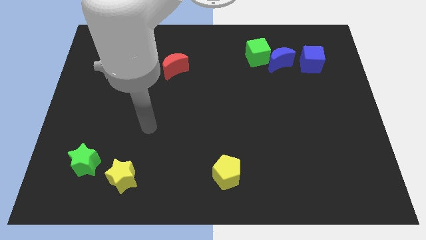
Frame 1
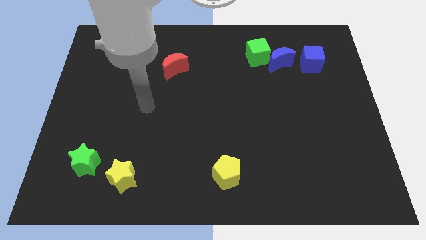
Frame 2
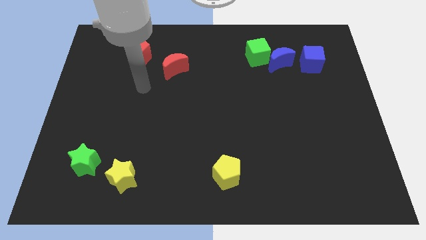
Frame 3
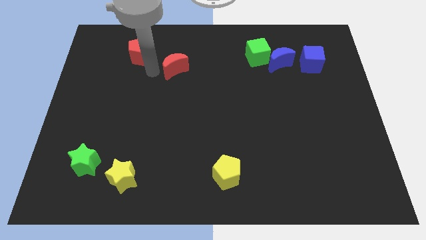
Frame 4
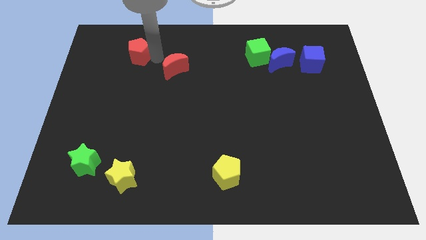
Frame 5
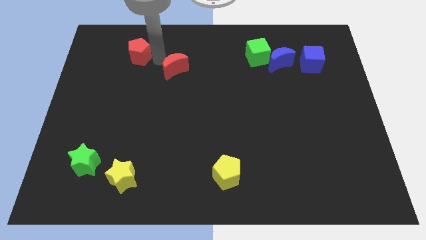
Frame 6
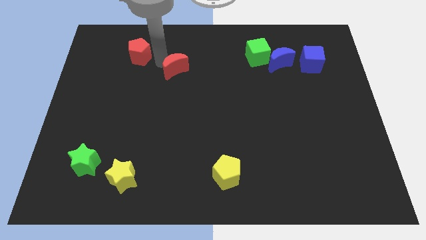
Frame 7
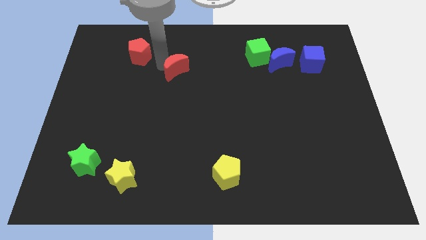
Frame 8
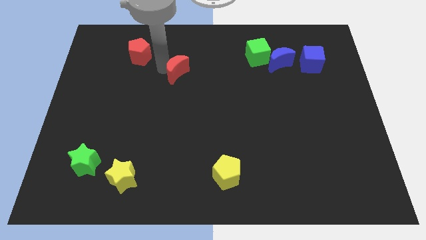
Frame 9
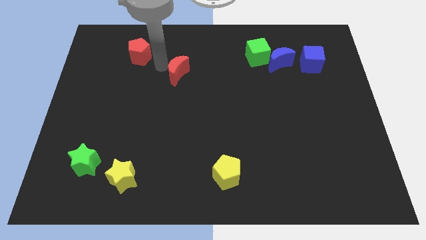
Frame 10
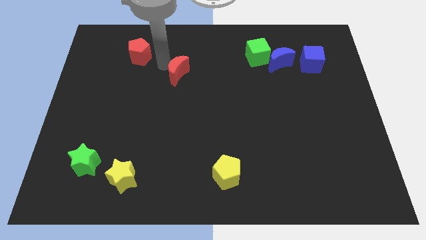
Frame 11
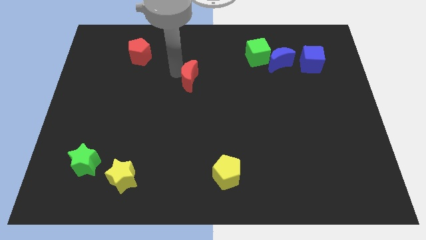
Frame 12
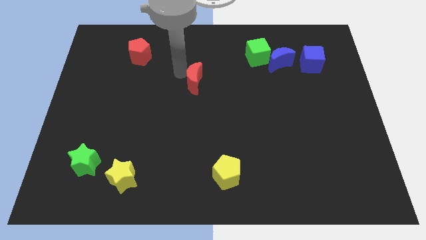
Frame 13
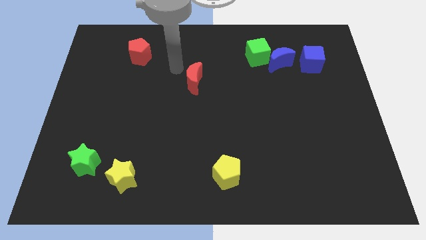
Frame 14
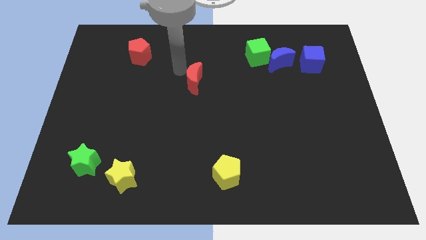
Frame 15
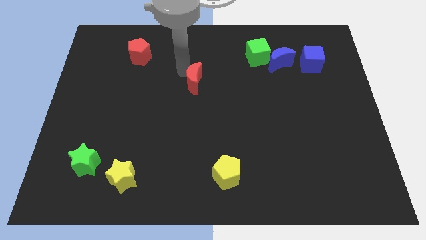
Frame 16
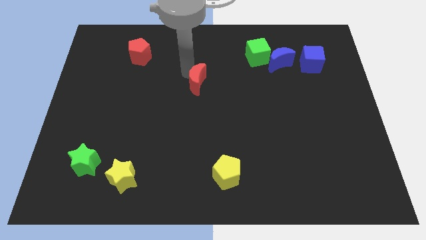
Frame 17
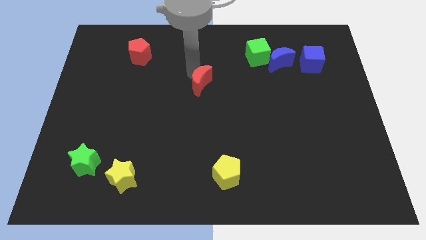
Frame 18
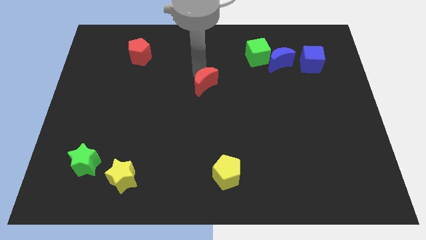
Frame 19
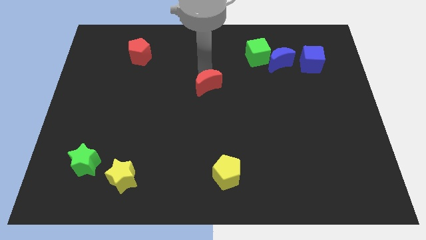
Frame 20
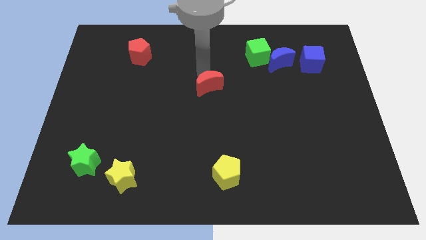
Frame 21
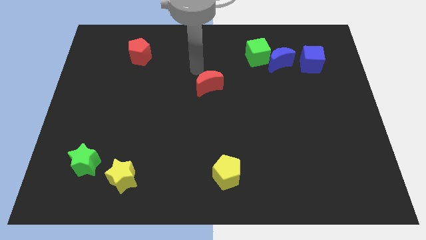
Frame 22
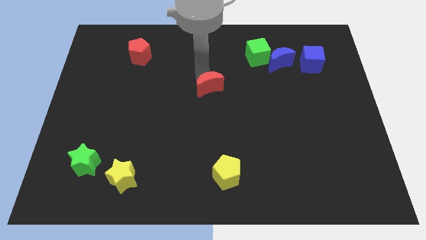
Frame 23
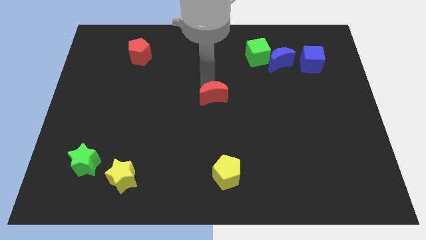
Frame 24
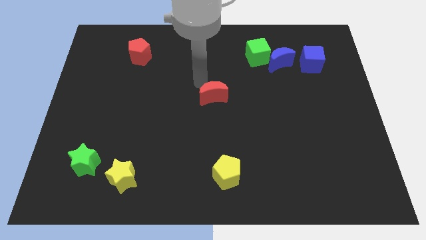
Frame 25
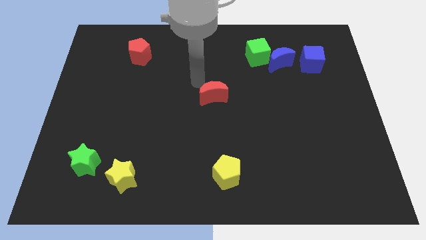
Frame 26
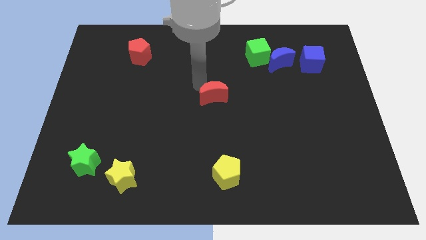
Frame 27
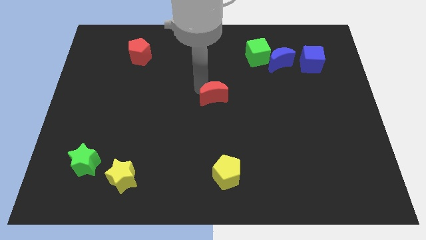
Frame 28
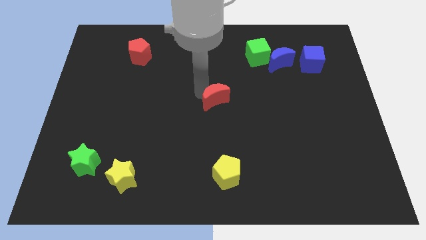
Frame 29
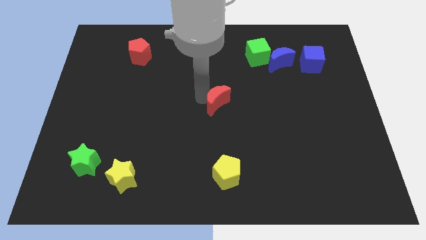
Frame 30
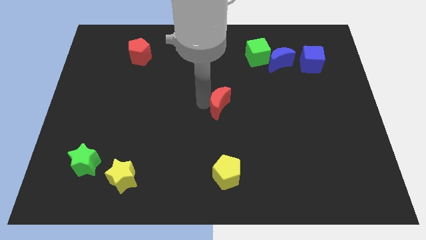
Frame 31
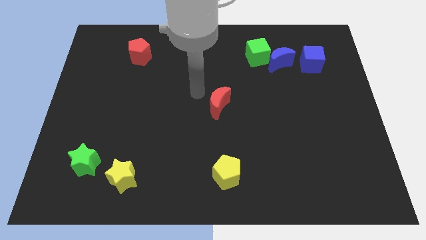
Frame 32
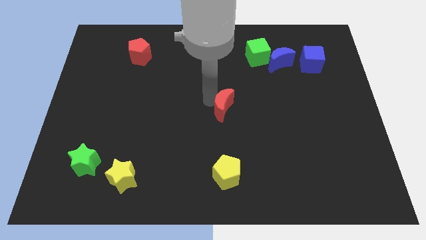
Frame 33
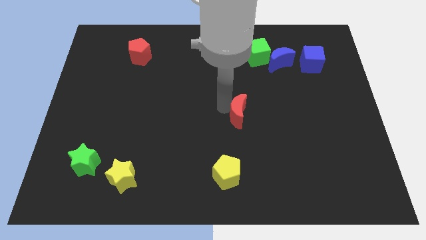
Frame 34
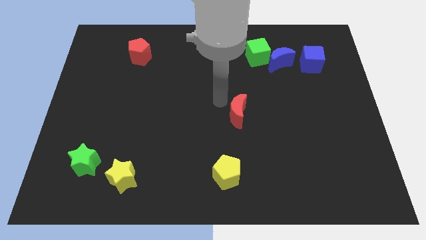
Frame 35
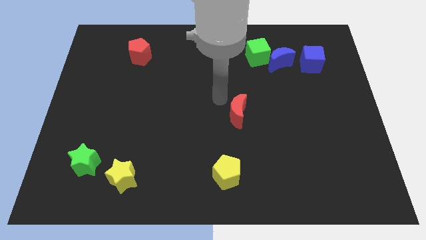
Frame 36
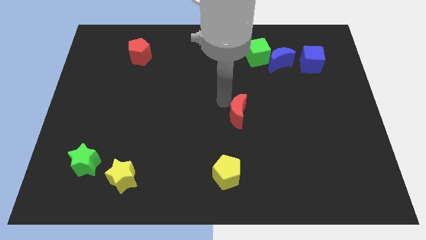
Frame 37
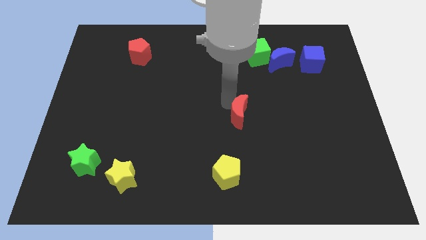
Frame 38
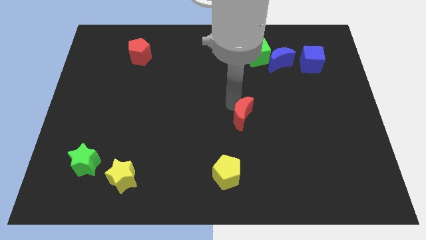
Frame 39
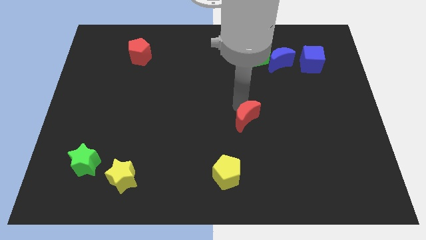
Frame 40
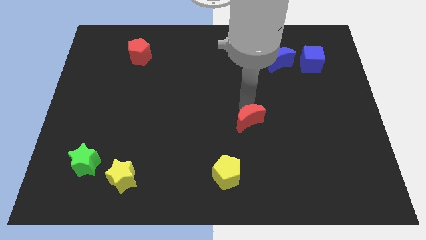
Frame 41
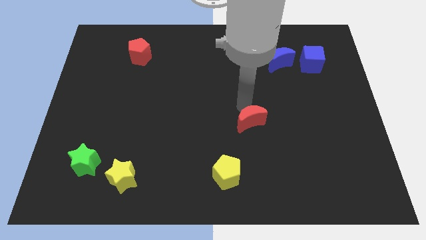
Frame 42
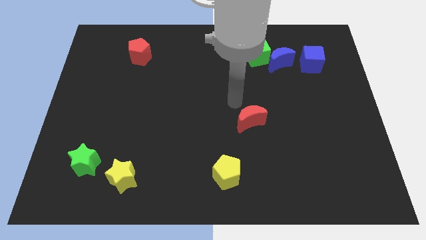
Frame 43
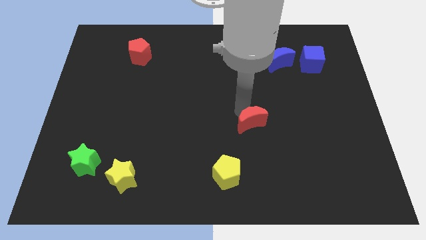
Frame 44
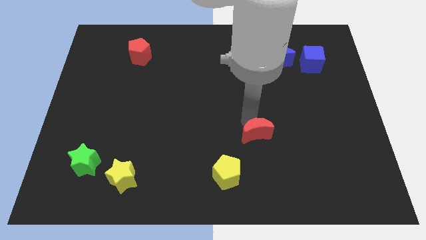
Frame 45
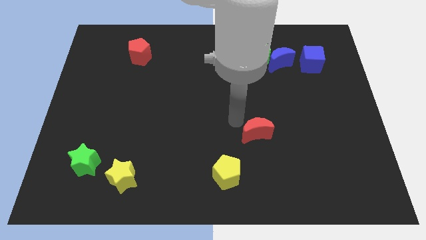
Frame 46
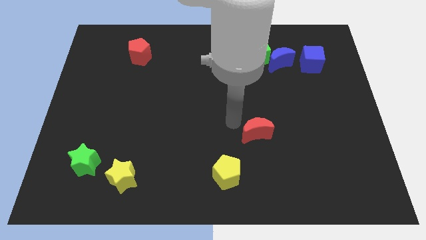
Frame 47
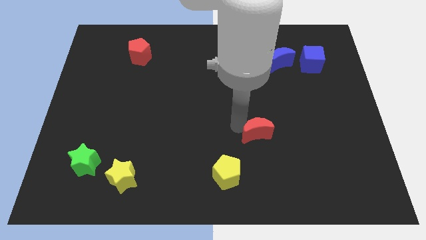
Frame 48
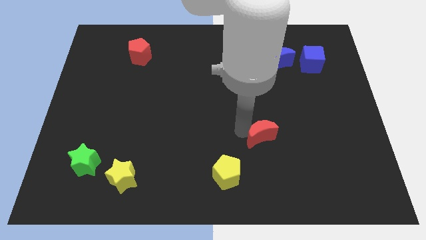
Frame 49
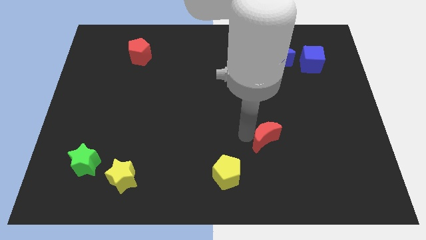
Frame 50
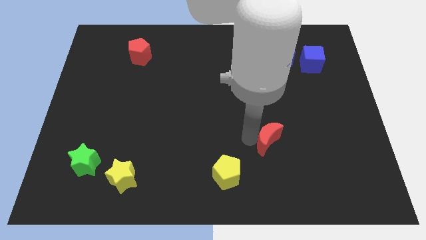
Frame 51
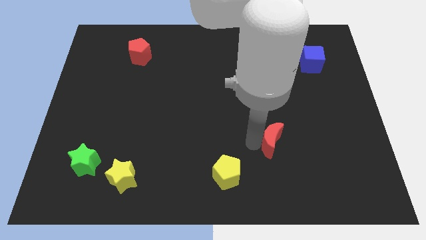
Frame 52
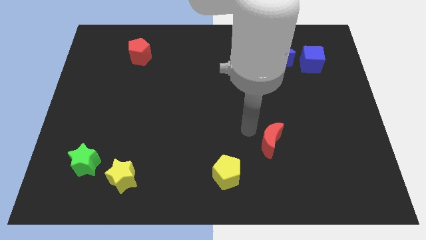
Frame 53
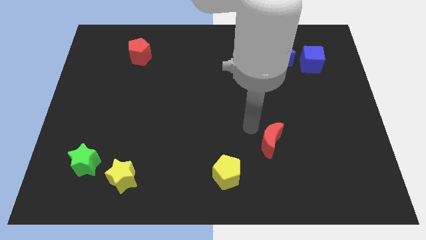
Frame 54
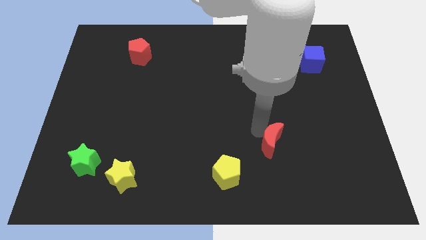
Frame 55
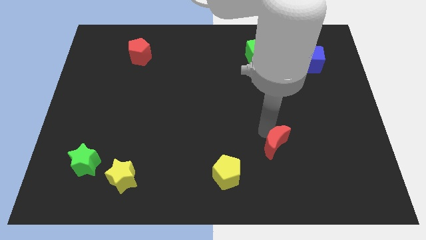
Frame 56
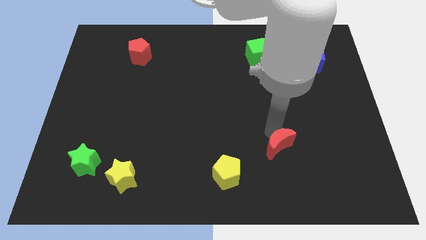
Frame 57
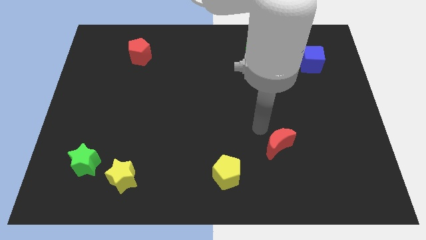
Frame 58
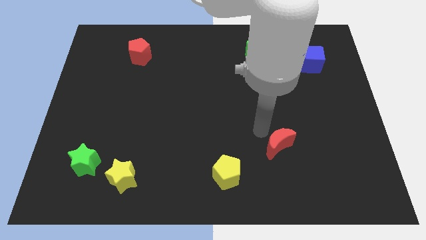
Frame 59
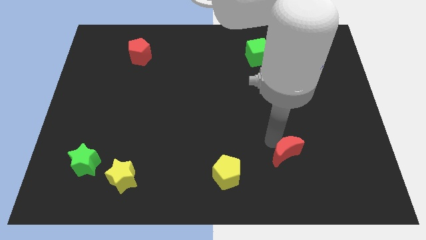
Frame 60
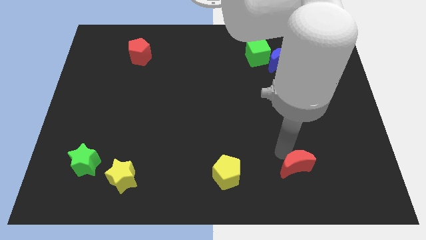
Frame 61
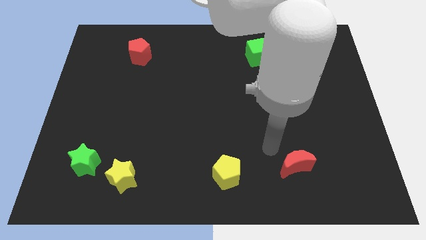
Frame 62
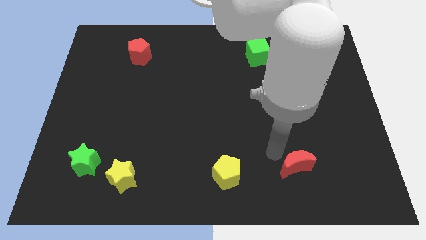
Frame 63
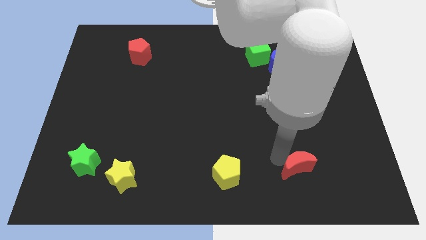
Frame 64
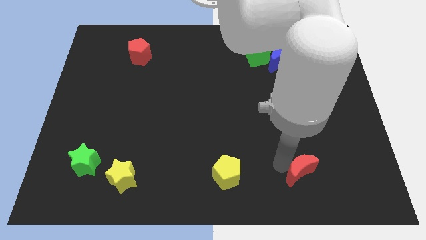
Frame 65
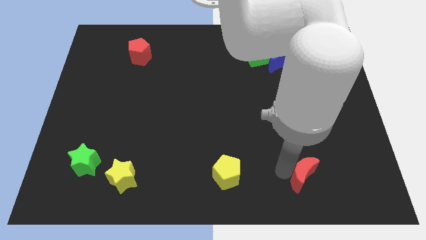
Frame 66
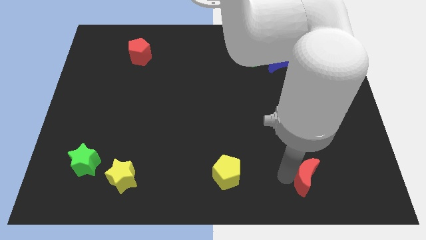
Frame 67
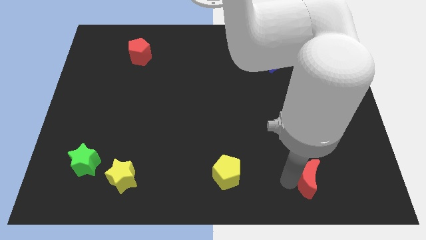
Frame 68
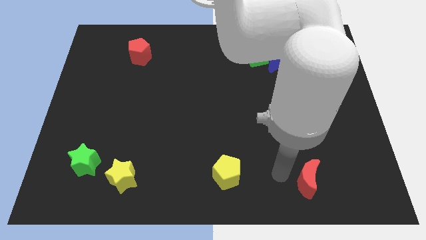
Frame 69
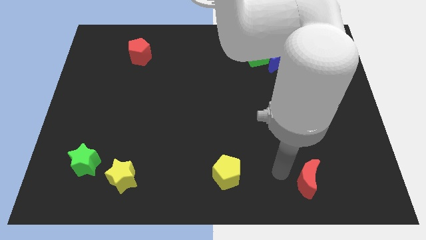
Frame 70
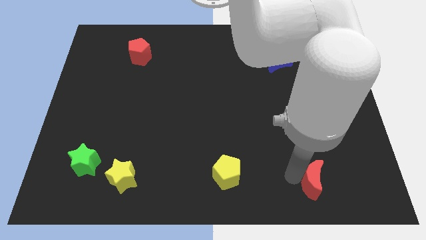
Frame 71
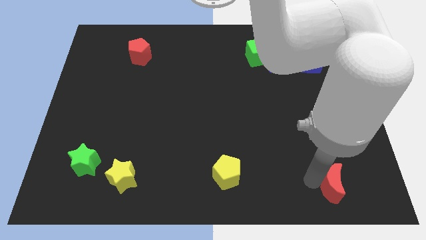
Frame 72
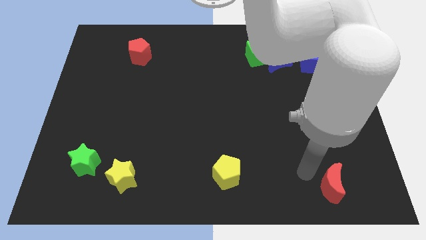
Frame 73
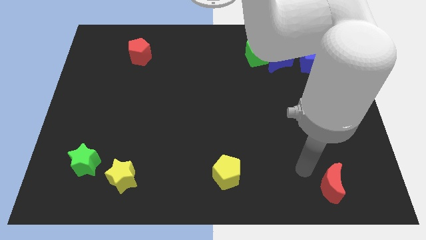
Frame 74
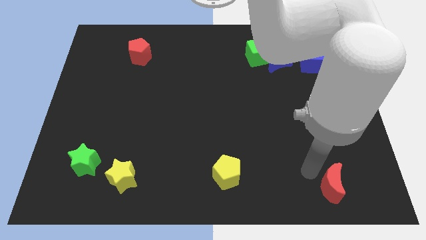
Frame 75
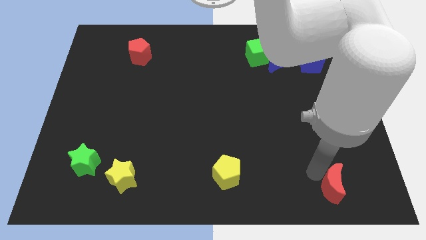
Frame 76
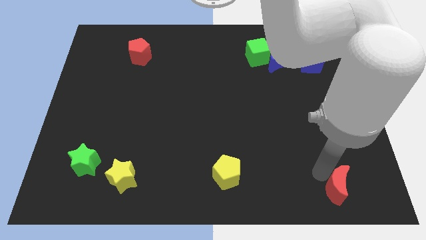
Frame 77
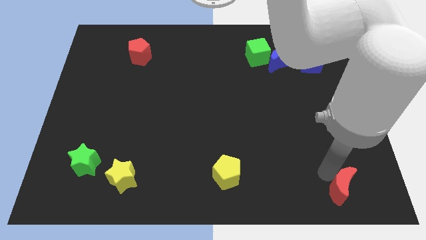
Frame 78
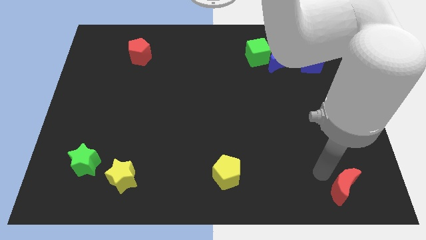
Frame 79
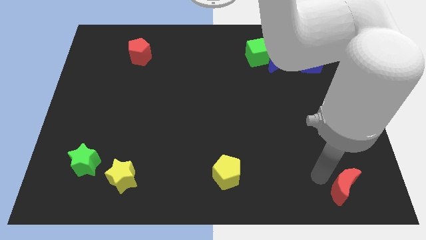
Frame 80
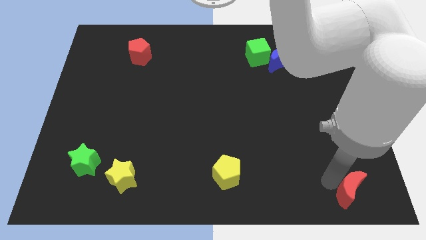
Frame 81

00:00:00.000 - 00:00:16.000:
slide the red moon to the bottom right
